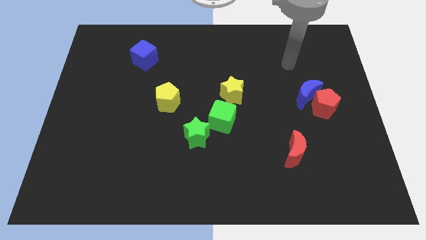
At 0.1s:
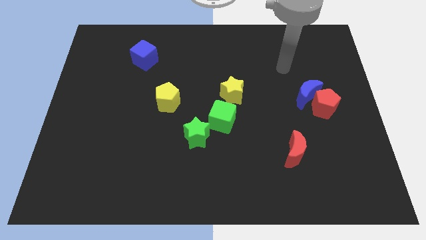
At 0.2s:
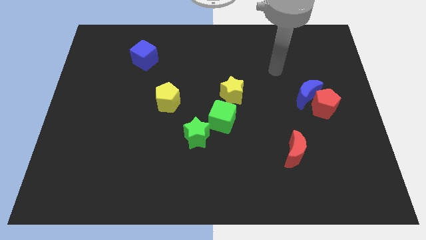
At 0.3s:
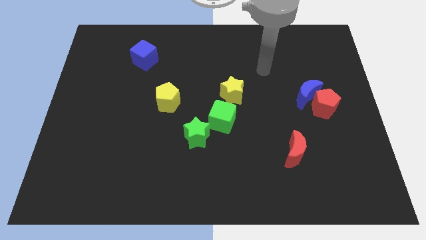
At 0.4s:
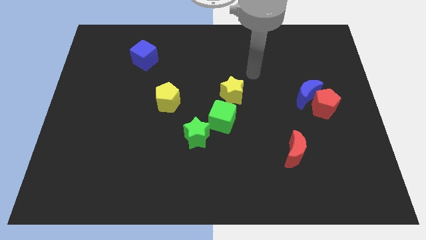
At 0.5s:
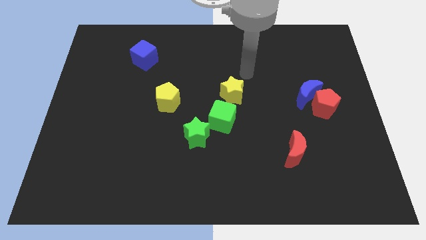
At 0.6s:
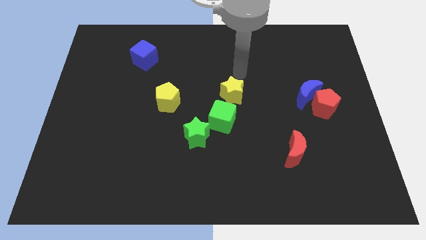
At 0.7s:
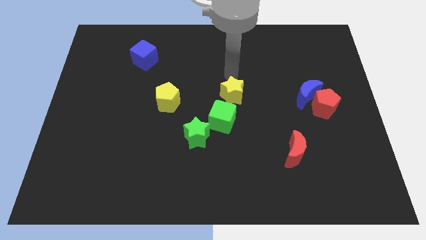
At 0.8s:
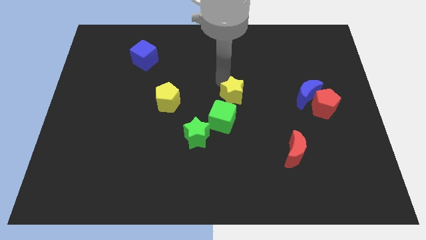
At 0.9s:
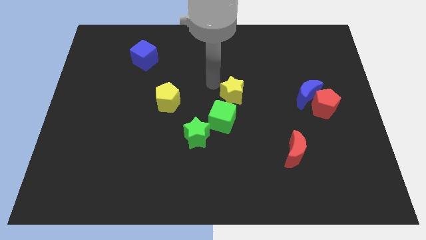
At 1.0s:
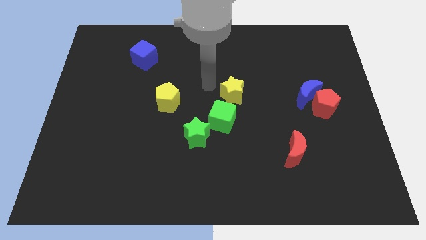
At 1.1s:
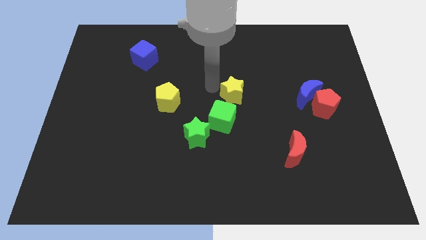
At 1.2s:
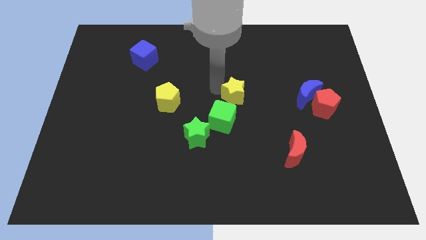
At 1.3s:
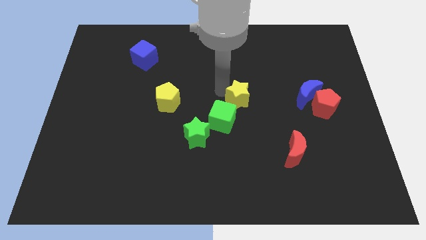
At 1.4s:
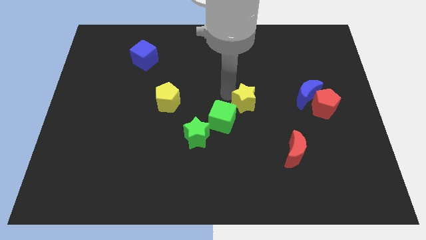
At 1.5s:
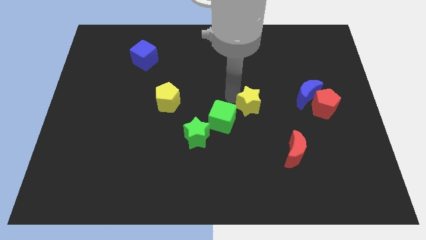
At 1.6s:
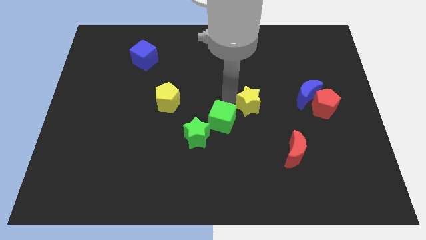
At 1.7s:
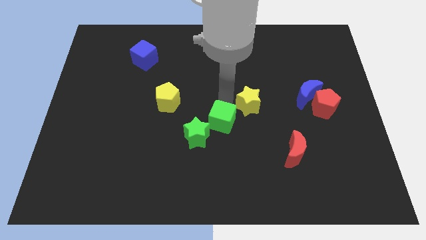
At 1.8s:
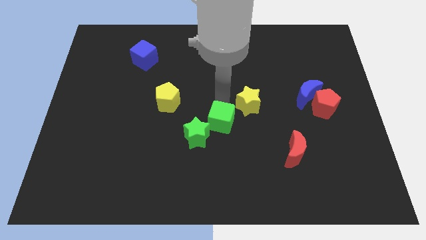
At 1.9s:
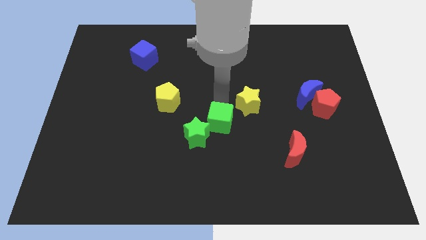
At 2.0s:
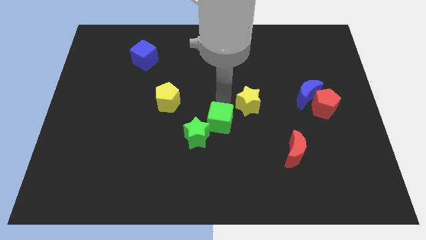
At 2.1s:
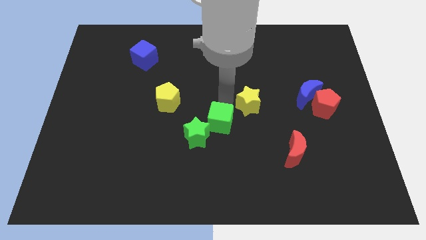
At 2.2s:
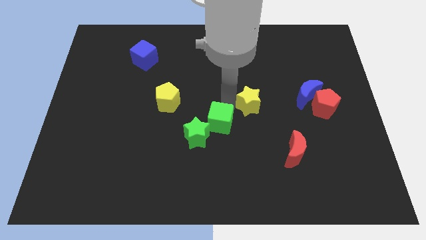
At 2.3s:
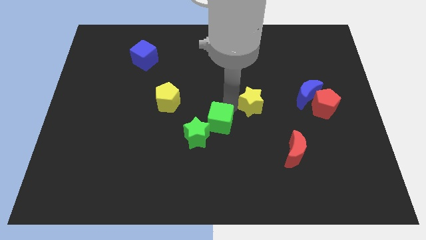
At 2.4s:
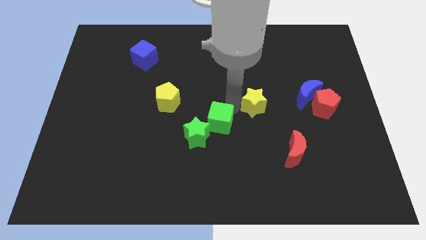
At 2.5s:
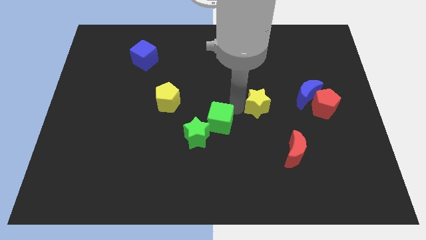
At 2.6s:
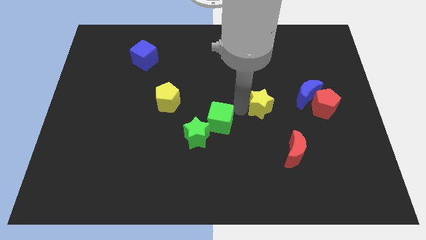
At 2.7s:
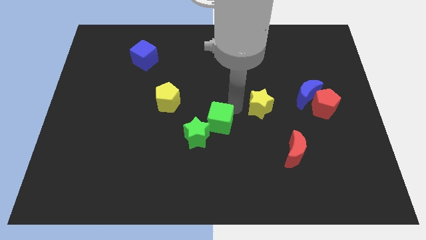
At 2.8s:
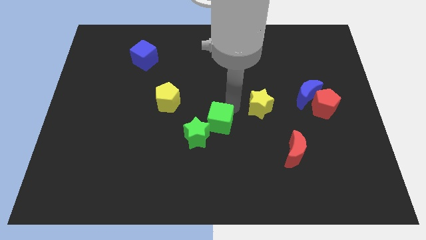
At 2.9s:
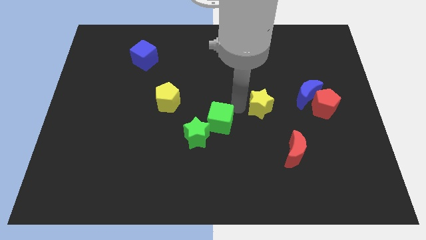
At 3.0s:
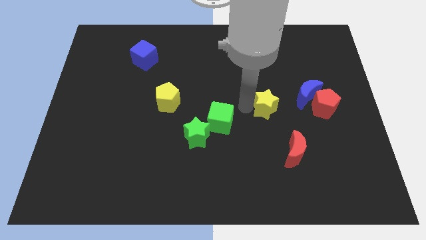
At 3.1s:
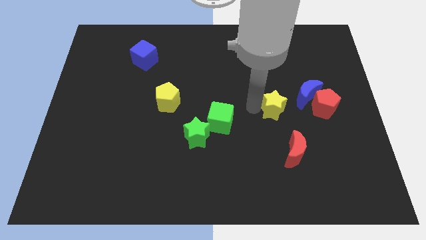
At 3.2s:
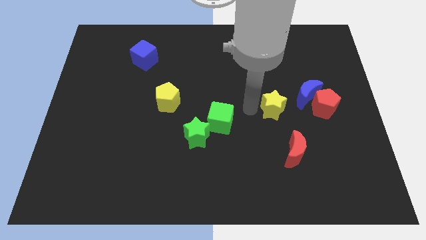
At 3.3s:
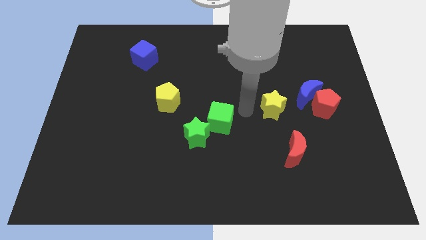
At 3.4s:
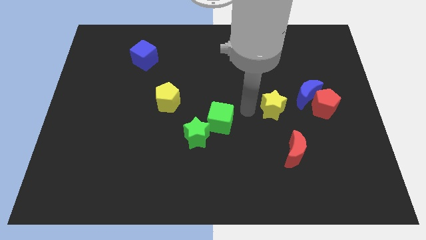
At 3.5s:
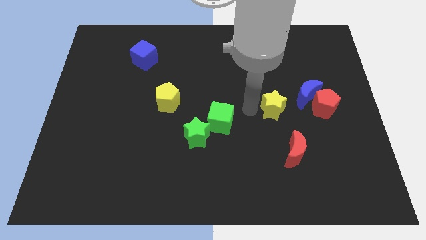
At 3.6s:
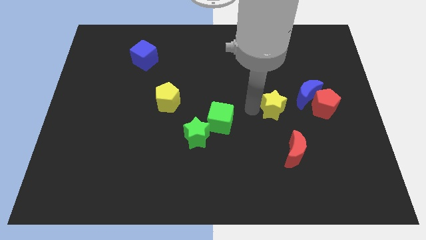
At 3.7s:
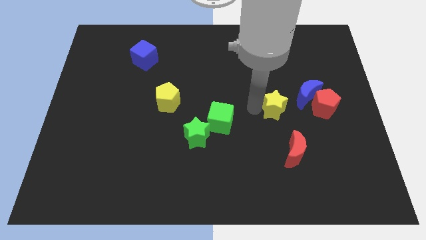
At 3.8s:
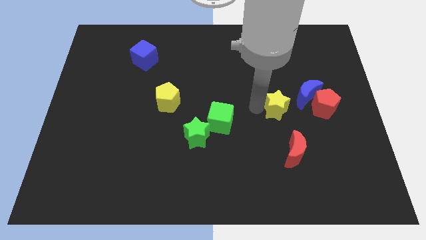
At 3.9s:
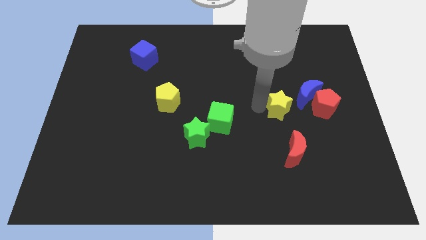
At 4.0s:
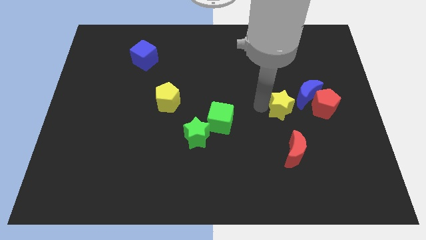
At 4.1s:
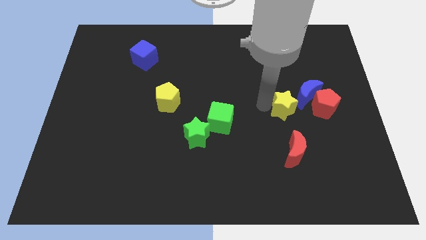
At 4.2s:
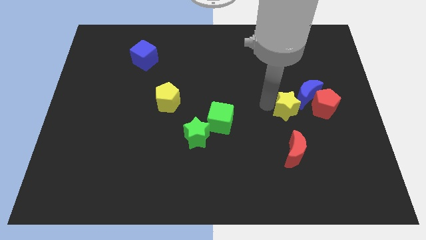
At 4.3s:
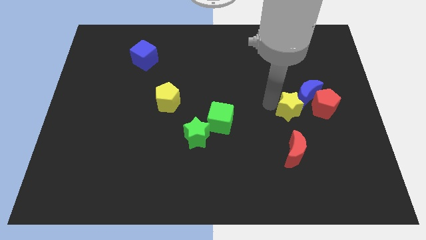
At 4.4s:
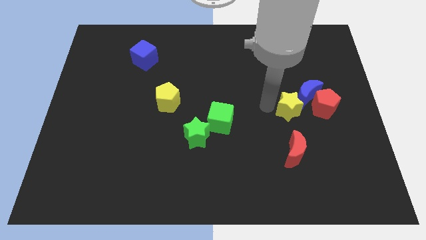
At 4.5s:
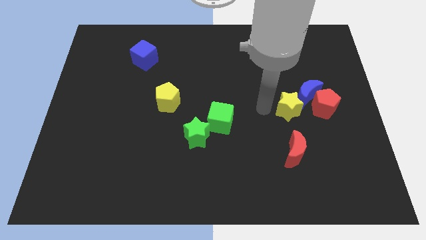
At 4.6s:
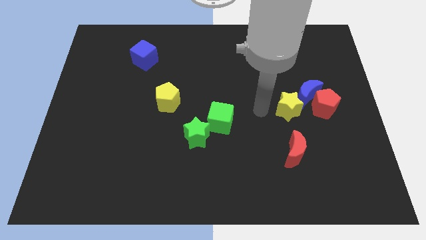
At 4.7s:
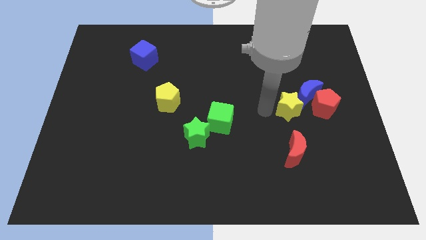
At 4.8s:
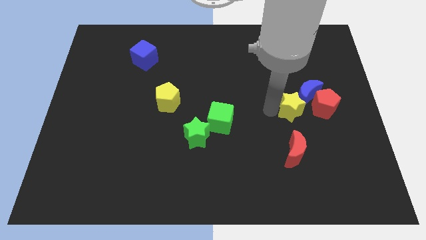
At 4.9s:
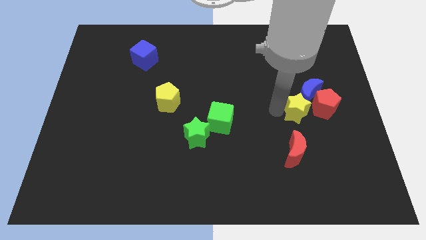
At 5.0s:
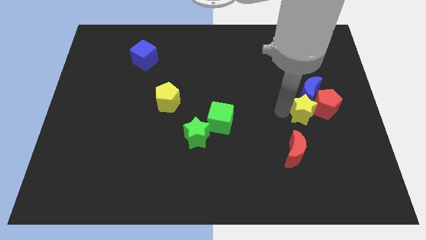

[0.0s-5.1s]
put the yellow star to the red pentagon

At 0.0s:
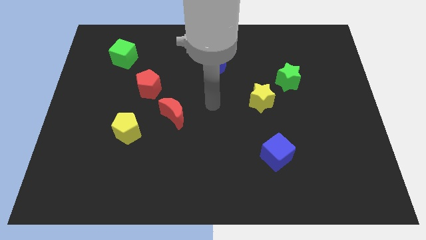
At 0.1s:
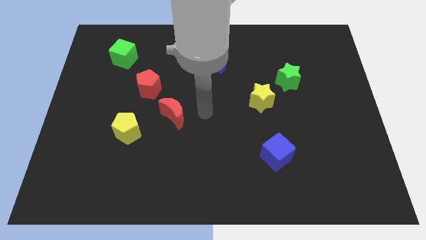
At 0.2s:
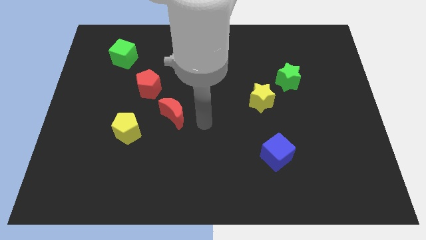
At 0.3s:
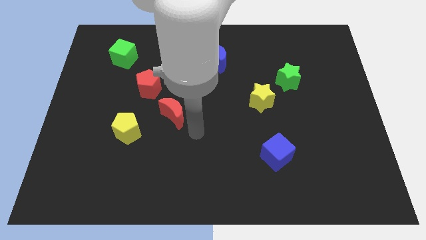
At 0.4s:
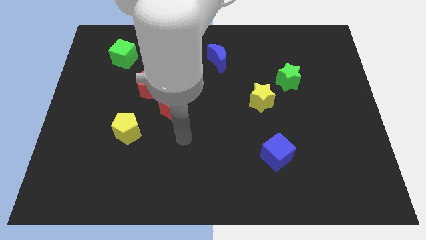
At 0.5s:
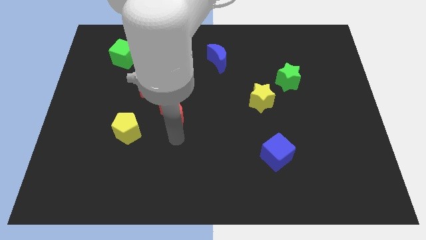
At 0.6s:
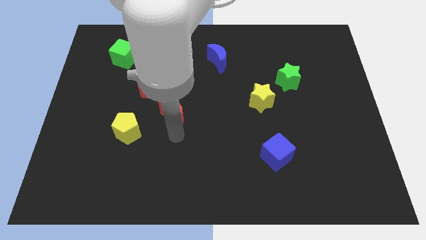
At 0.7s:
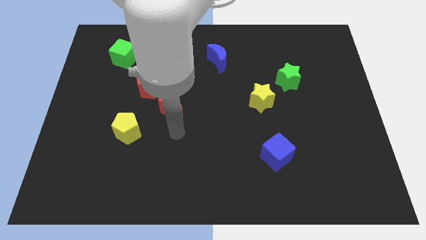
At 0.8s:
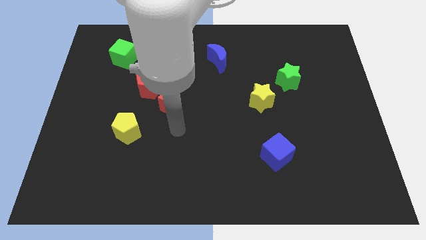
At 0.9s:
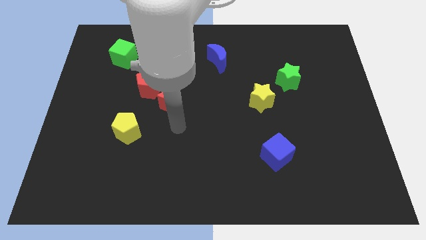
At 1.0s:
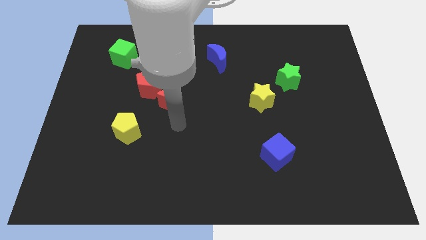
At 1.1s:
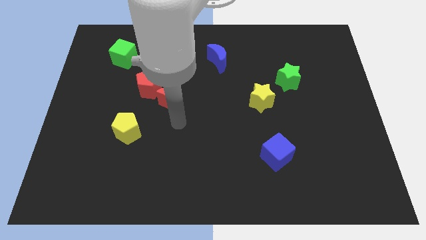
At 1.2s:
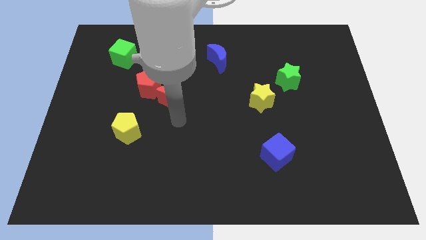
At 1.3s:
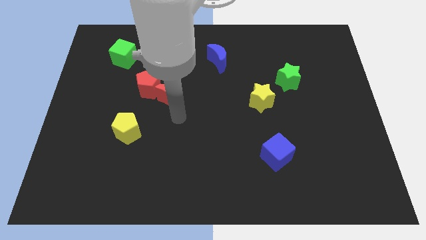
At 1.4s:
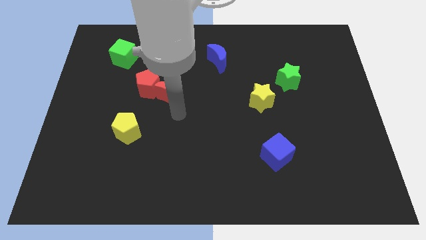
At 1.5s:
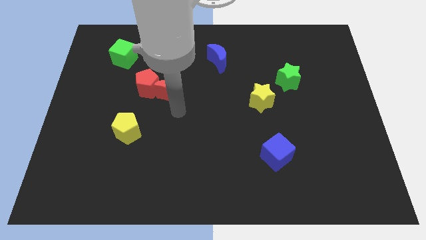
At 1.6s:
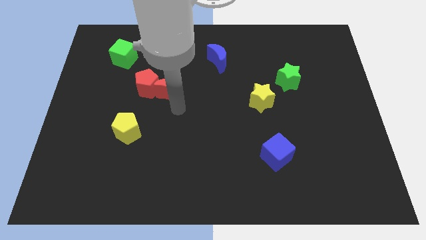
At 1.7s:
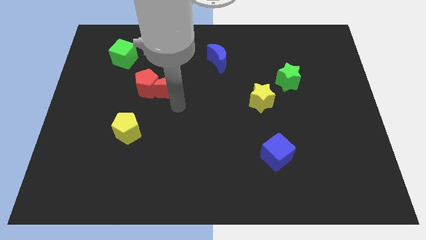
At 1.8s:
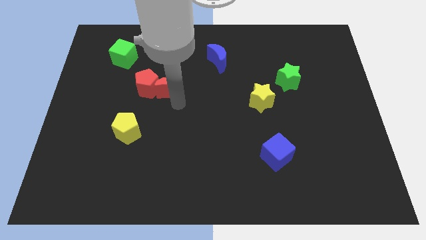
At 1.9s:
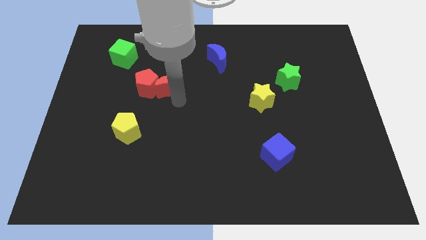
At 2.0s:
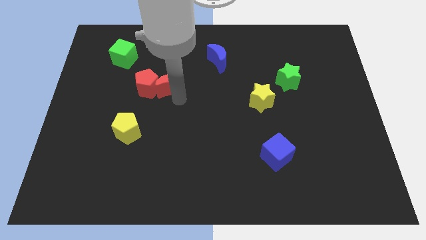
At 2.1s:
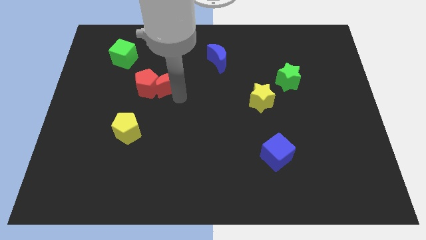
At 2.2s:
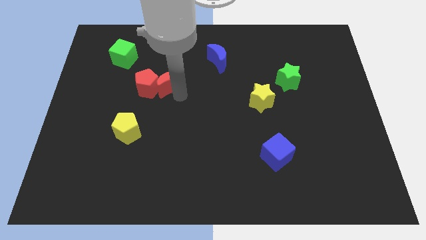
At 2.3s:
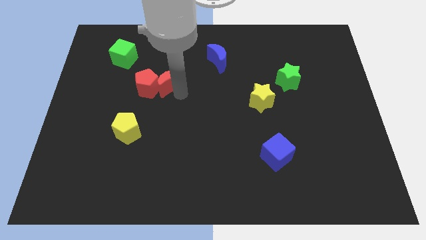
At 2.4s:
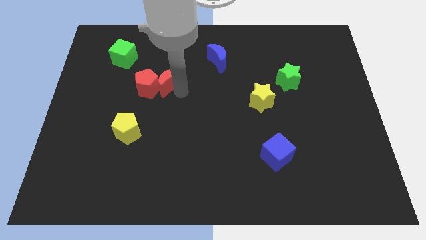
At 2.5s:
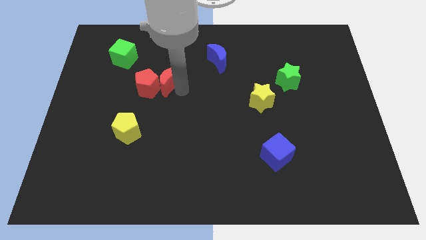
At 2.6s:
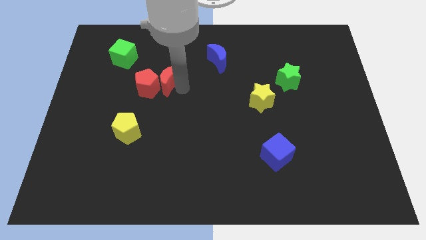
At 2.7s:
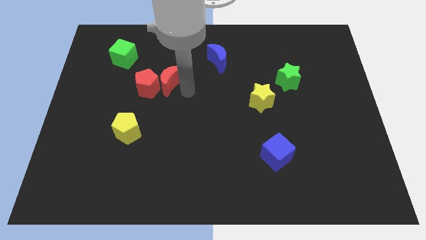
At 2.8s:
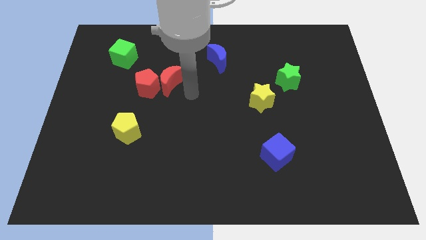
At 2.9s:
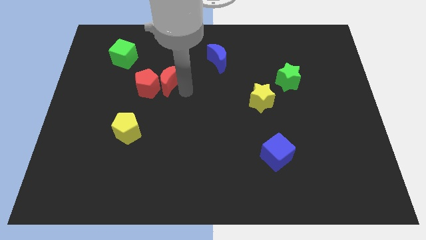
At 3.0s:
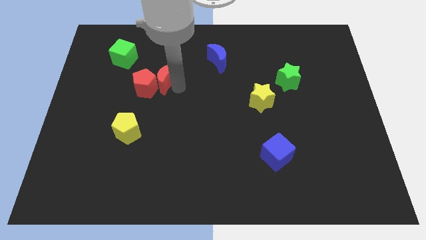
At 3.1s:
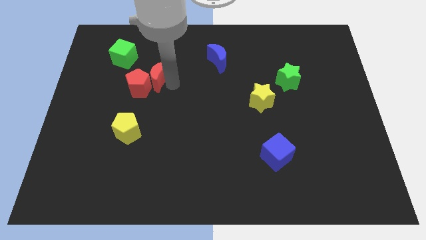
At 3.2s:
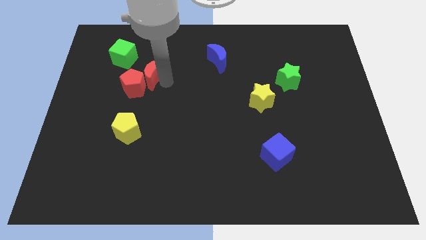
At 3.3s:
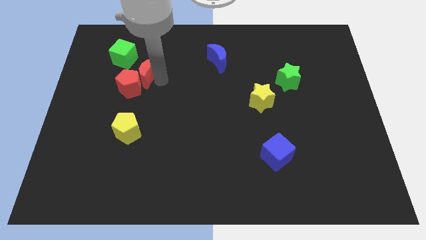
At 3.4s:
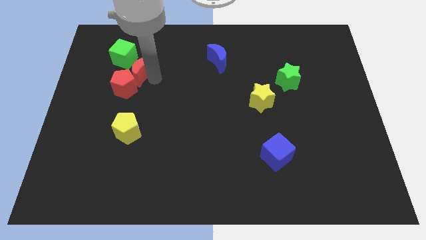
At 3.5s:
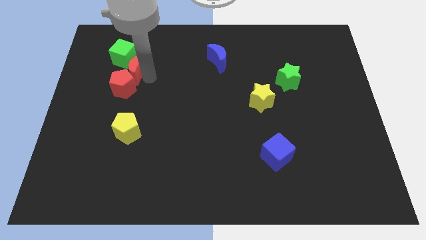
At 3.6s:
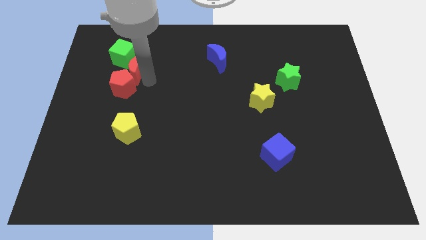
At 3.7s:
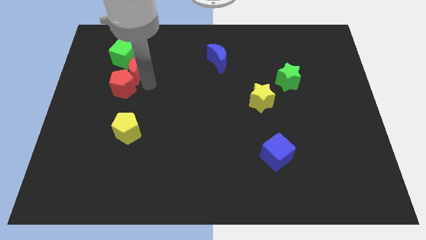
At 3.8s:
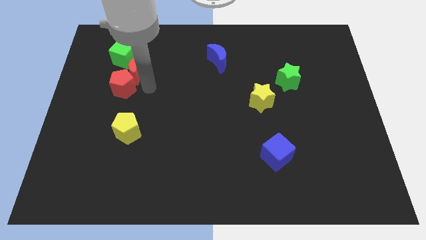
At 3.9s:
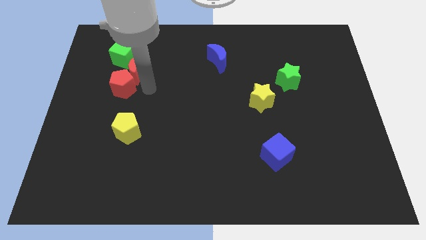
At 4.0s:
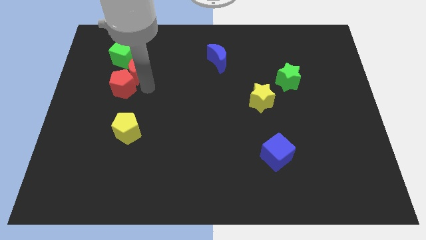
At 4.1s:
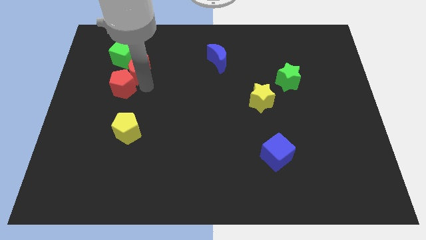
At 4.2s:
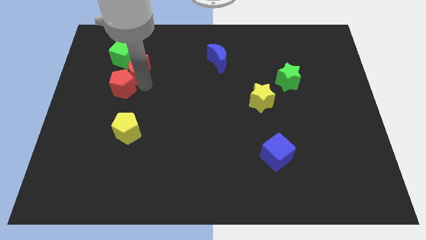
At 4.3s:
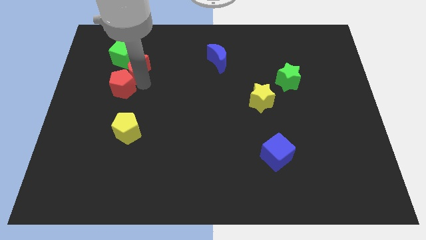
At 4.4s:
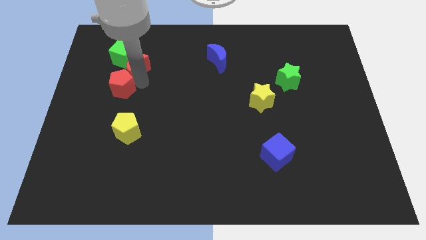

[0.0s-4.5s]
move the red moon to the green cube
